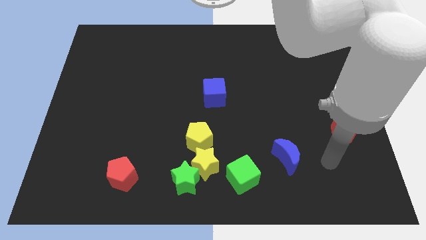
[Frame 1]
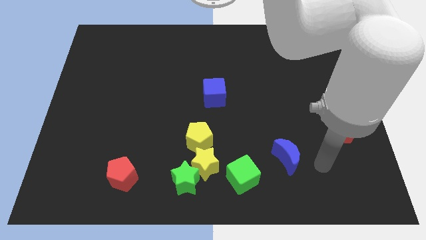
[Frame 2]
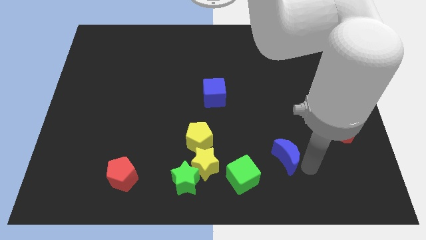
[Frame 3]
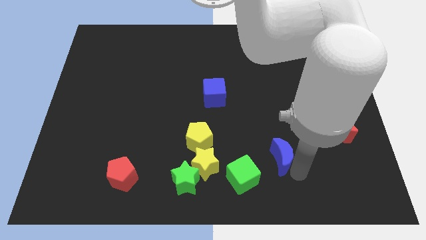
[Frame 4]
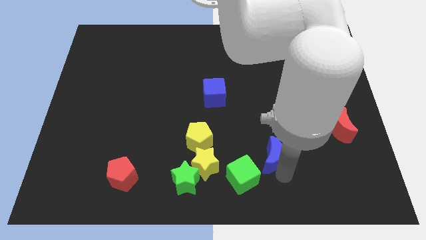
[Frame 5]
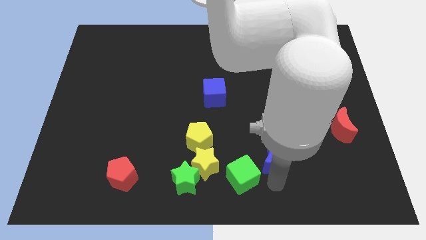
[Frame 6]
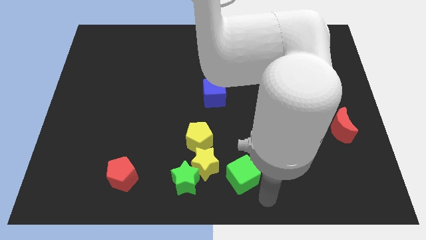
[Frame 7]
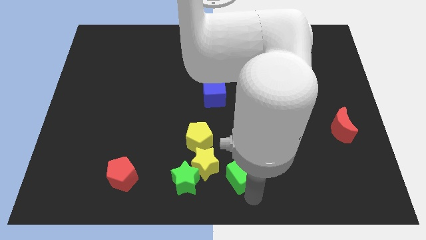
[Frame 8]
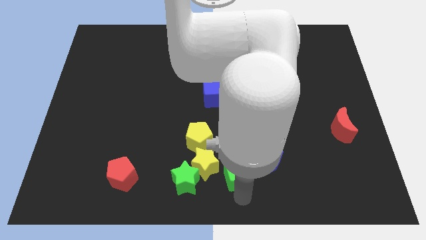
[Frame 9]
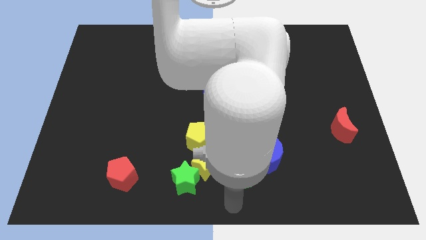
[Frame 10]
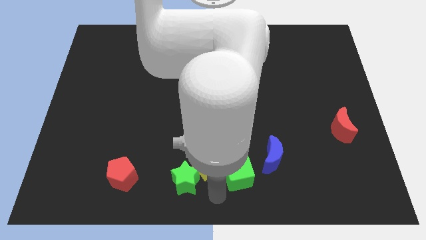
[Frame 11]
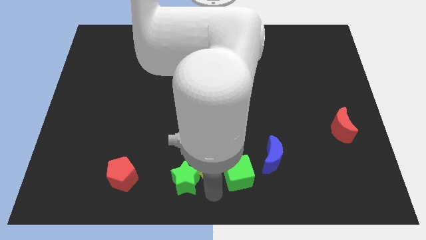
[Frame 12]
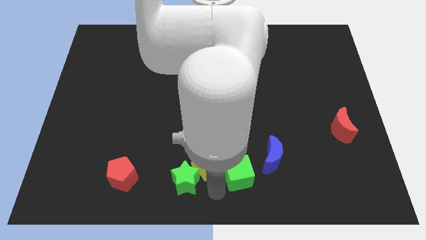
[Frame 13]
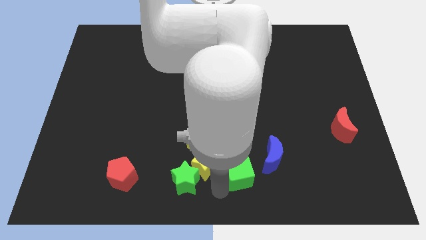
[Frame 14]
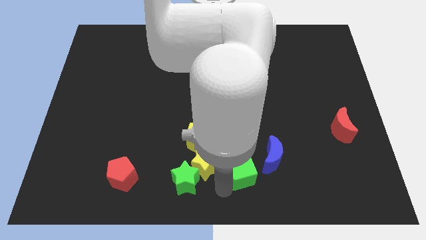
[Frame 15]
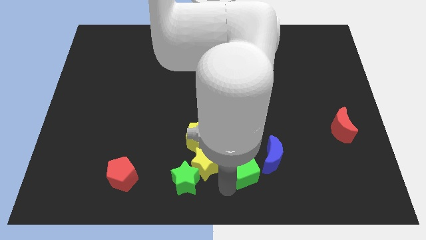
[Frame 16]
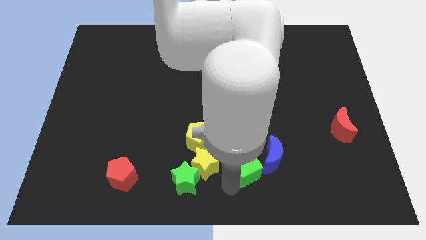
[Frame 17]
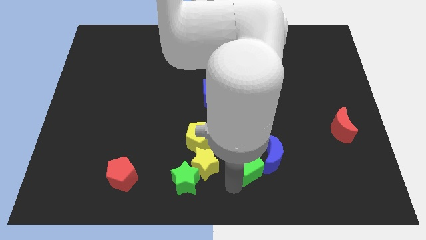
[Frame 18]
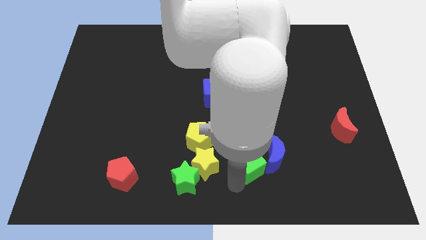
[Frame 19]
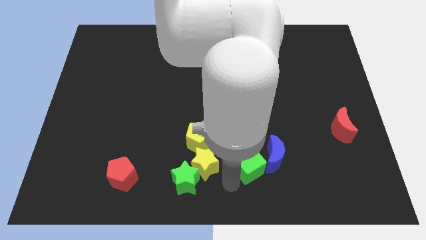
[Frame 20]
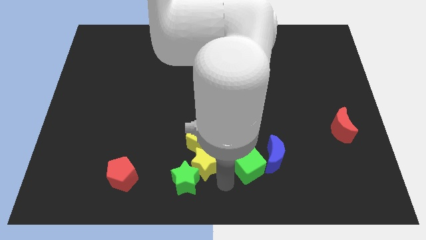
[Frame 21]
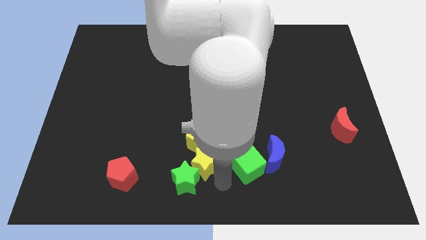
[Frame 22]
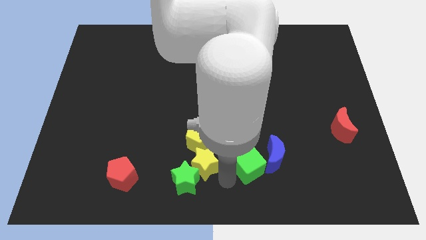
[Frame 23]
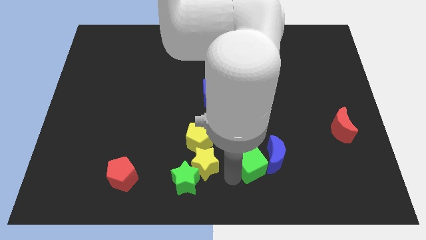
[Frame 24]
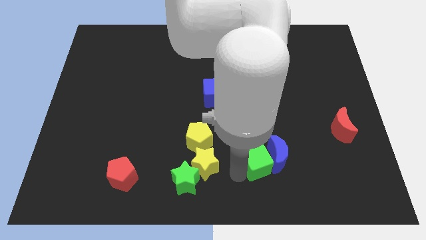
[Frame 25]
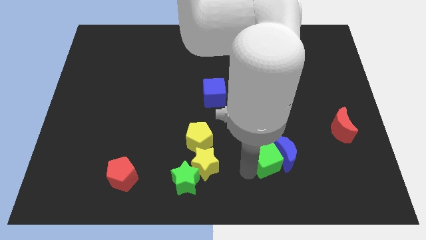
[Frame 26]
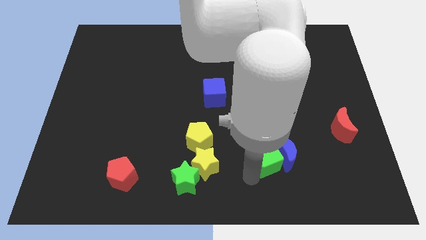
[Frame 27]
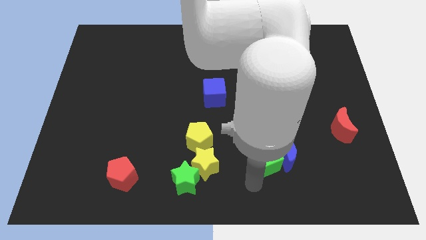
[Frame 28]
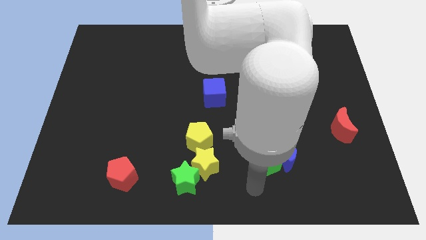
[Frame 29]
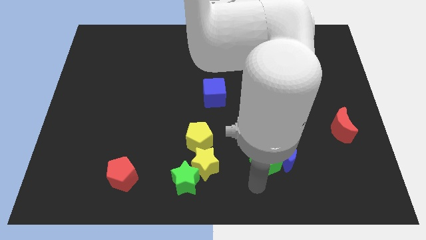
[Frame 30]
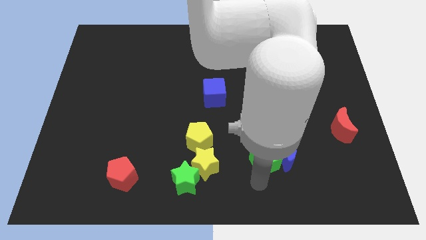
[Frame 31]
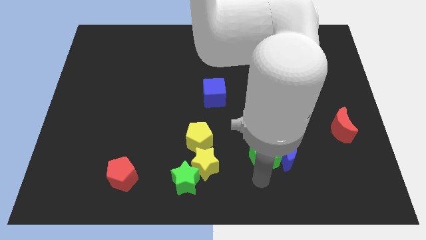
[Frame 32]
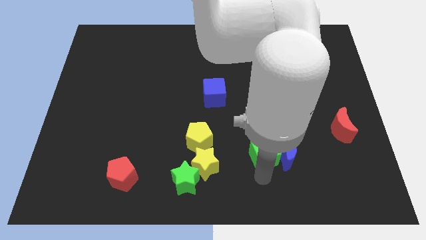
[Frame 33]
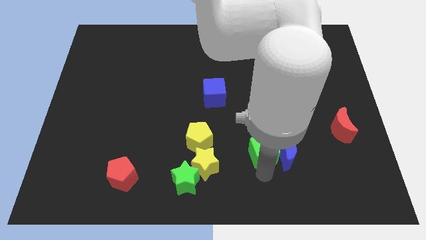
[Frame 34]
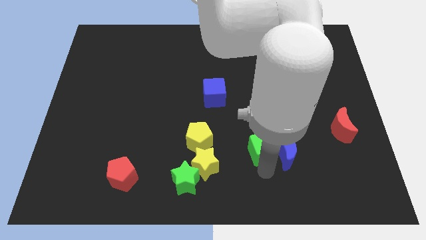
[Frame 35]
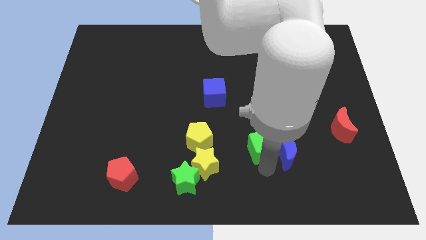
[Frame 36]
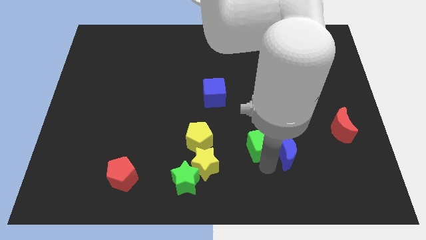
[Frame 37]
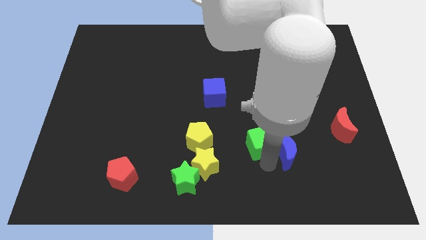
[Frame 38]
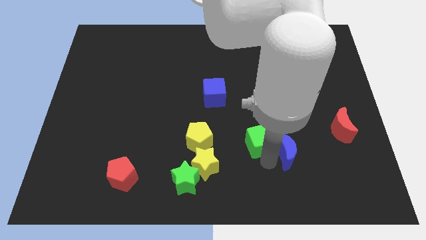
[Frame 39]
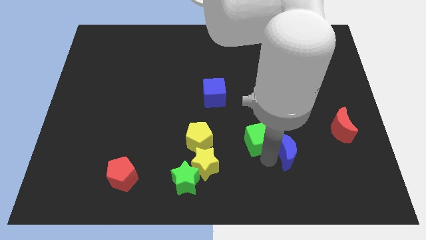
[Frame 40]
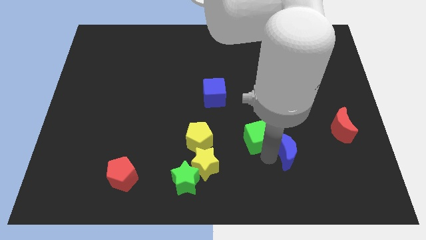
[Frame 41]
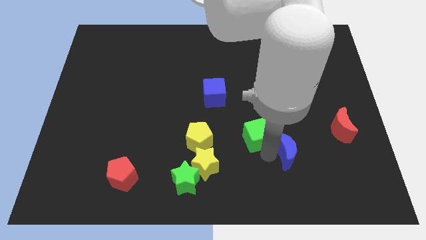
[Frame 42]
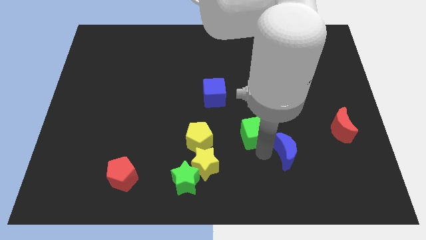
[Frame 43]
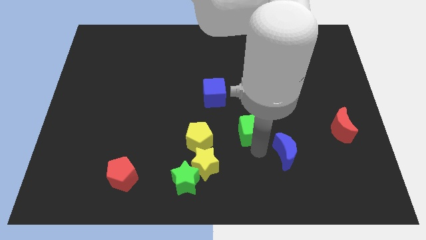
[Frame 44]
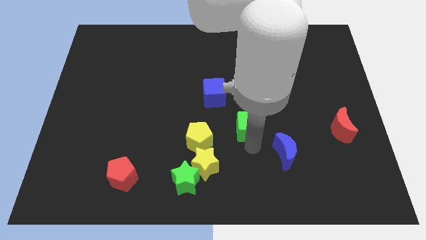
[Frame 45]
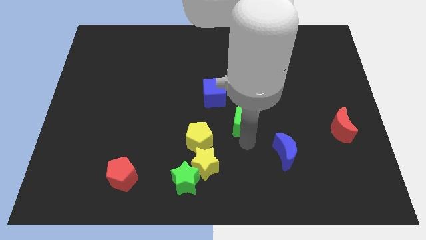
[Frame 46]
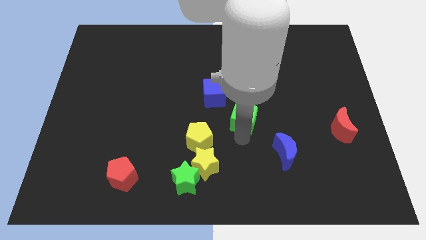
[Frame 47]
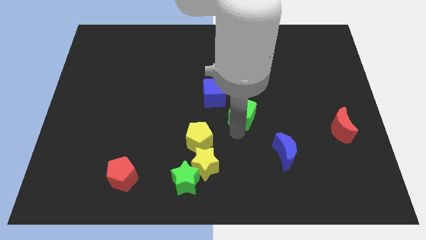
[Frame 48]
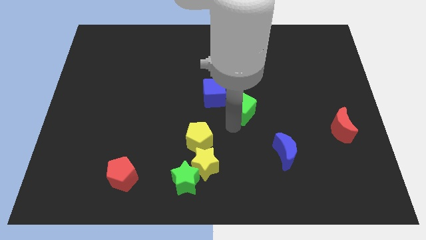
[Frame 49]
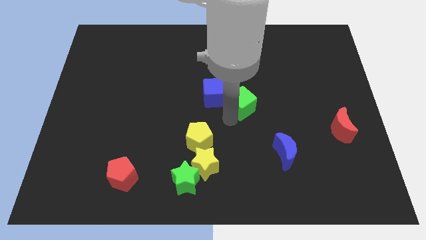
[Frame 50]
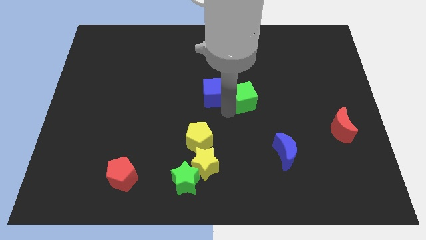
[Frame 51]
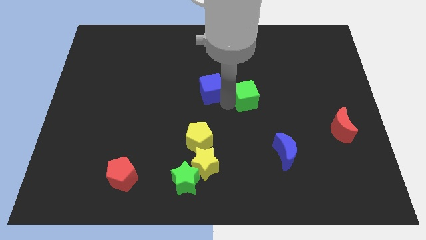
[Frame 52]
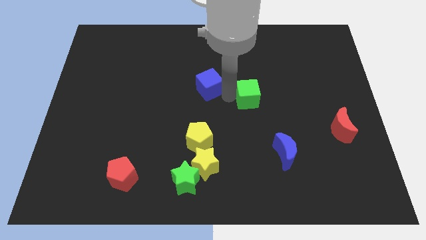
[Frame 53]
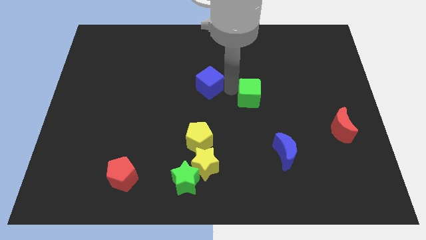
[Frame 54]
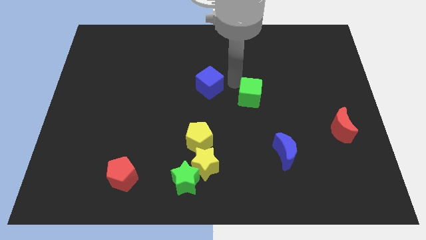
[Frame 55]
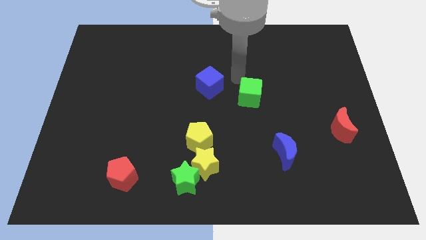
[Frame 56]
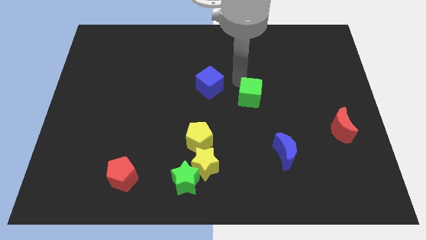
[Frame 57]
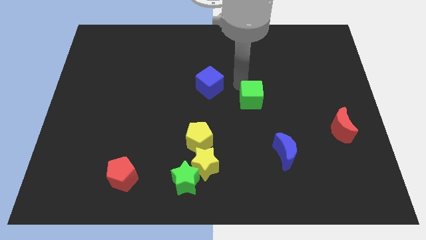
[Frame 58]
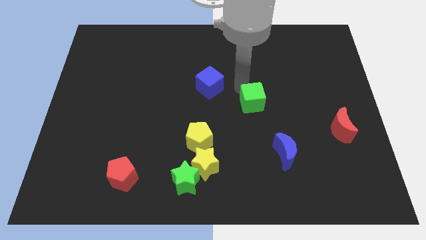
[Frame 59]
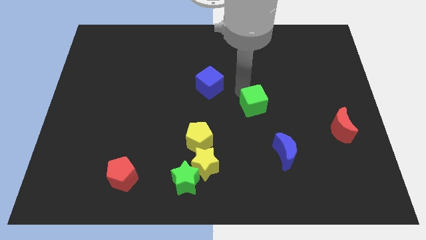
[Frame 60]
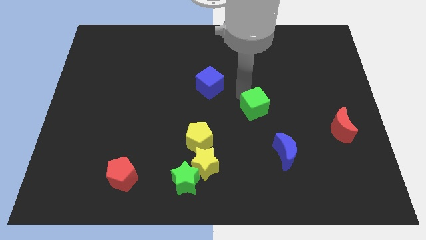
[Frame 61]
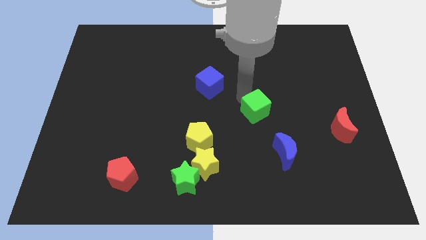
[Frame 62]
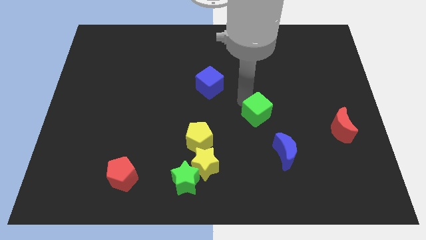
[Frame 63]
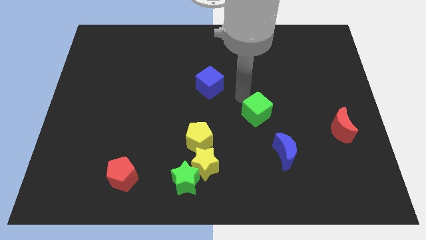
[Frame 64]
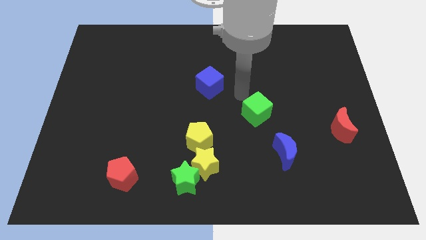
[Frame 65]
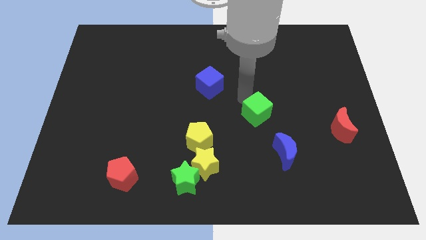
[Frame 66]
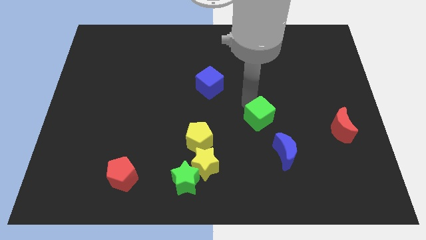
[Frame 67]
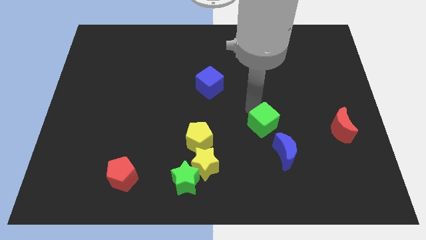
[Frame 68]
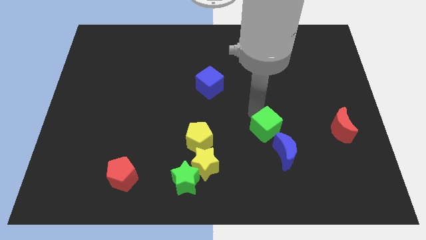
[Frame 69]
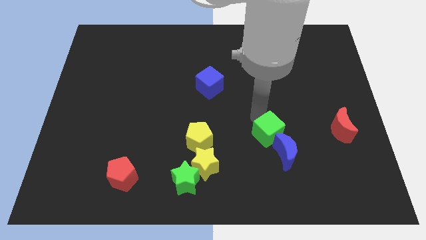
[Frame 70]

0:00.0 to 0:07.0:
push the green cube to the left side of the red moon
